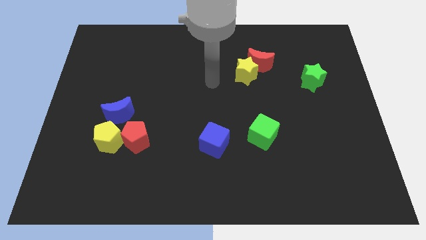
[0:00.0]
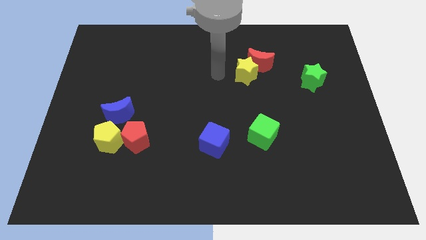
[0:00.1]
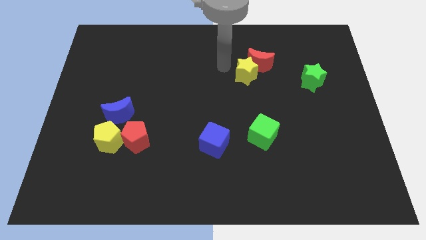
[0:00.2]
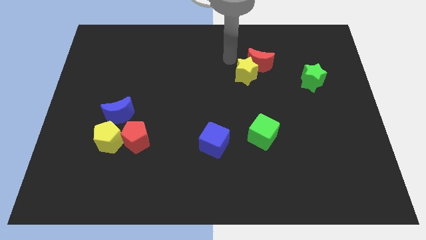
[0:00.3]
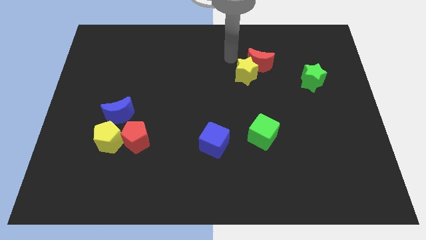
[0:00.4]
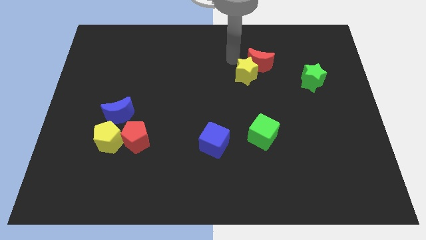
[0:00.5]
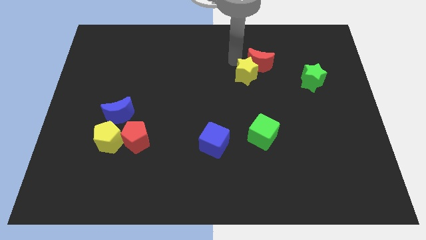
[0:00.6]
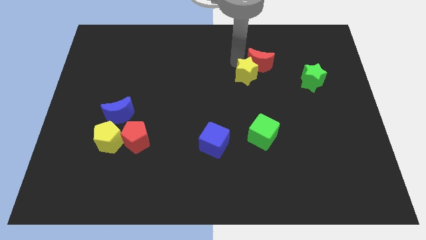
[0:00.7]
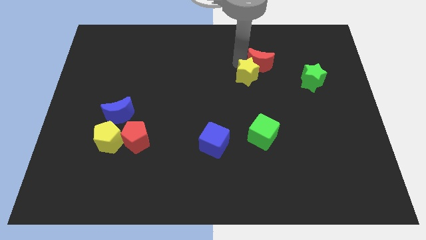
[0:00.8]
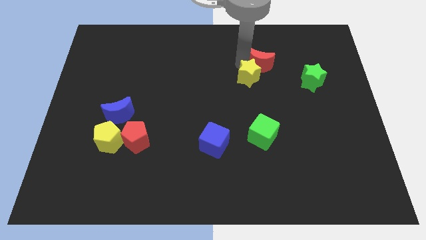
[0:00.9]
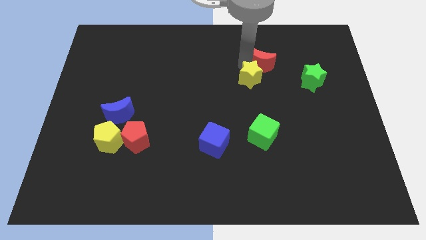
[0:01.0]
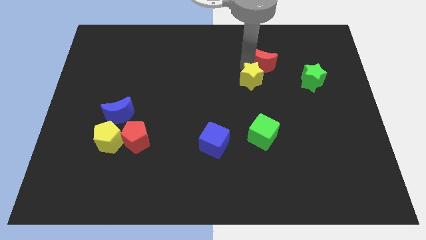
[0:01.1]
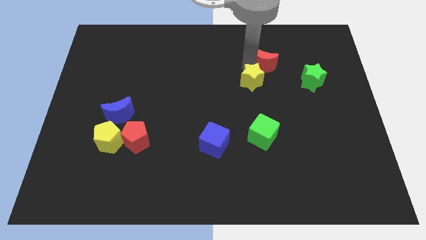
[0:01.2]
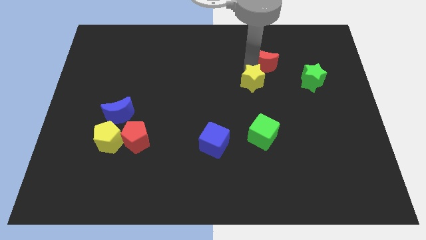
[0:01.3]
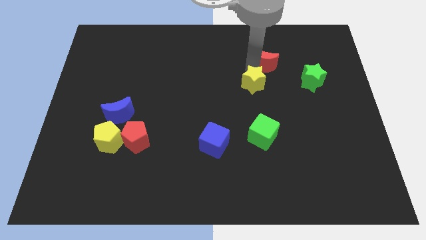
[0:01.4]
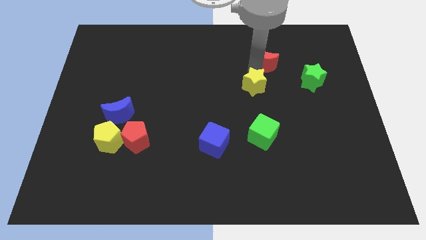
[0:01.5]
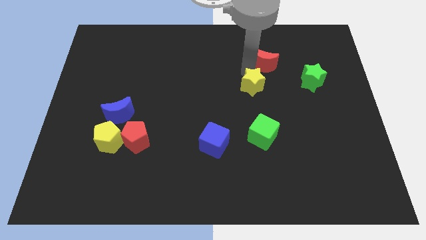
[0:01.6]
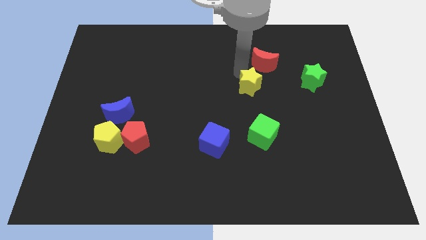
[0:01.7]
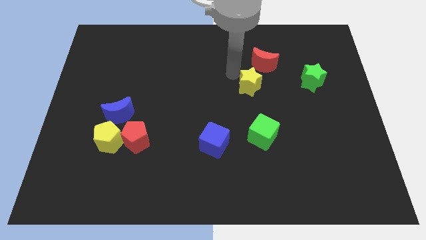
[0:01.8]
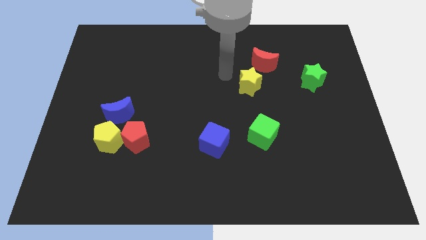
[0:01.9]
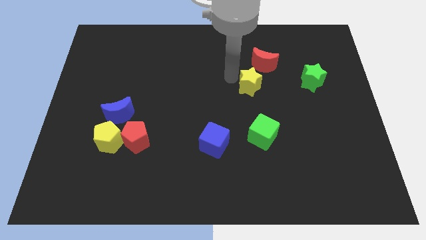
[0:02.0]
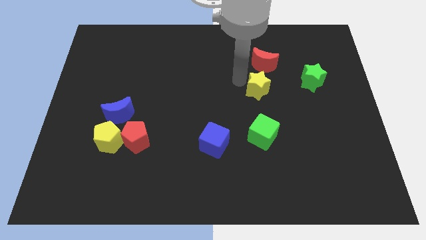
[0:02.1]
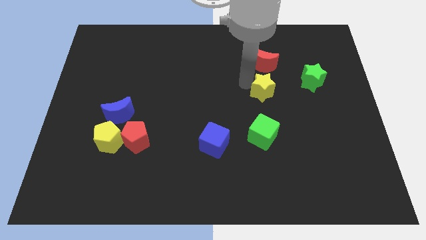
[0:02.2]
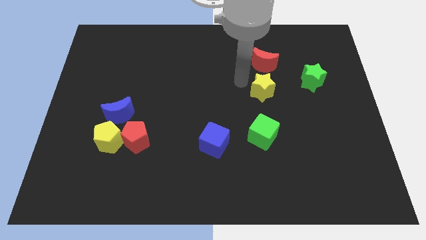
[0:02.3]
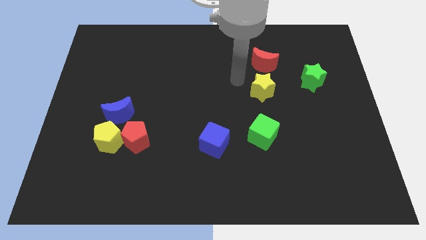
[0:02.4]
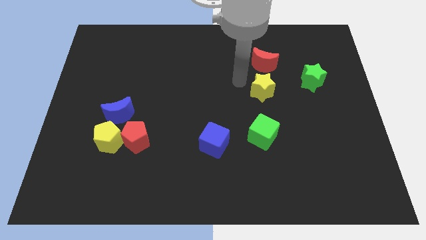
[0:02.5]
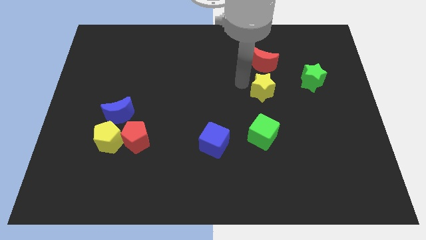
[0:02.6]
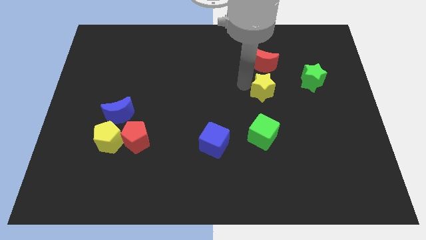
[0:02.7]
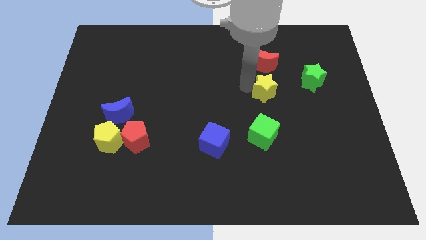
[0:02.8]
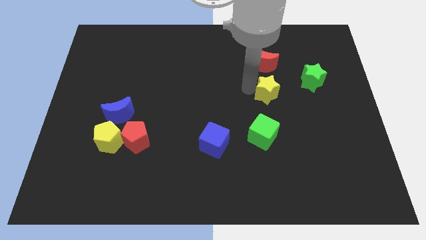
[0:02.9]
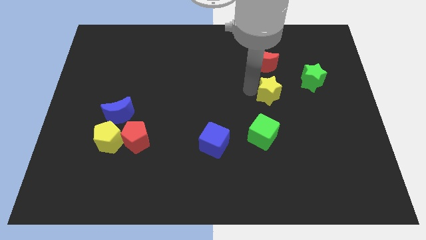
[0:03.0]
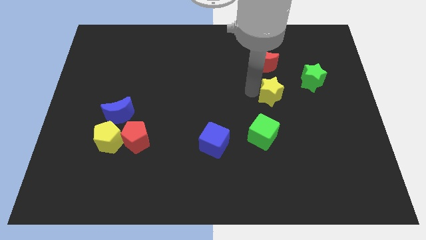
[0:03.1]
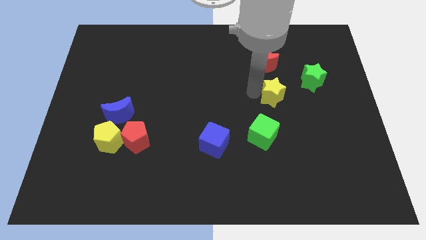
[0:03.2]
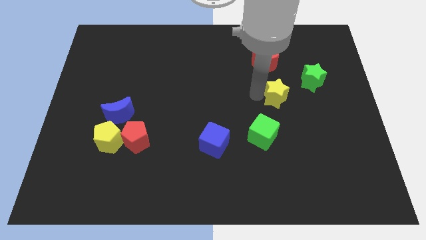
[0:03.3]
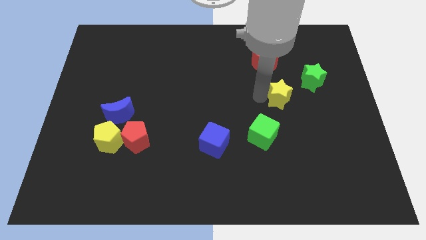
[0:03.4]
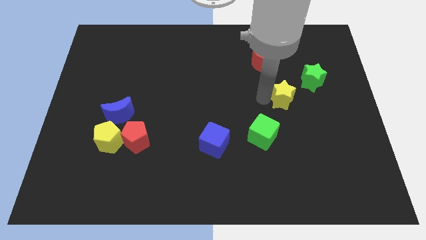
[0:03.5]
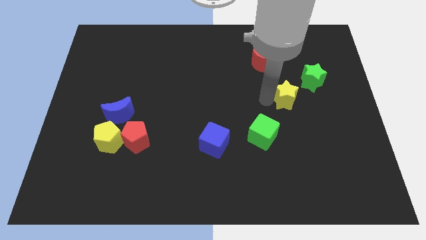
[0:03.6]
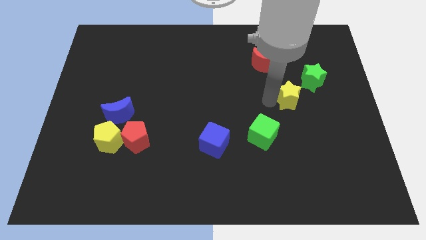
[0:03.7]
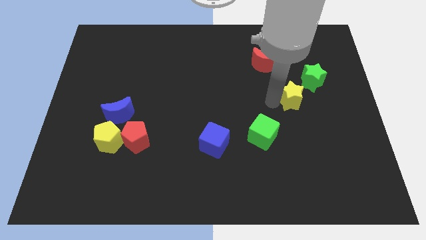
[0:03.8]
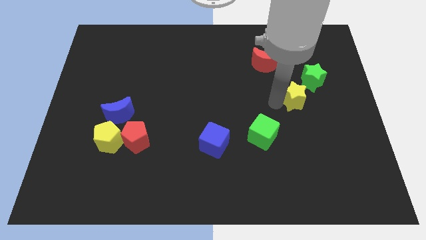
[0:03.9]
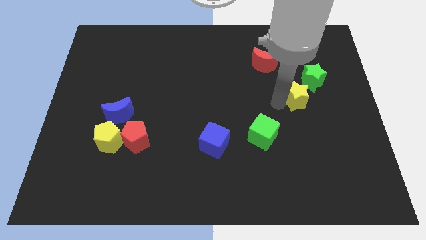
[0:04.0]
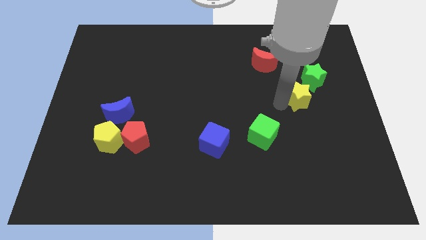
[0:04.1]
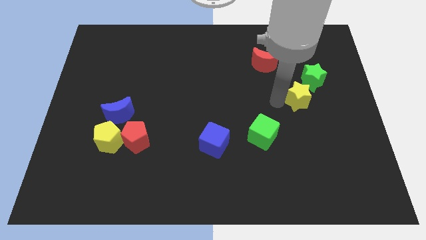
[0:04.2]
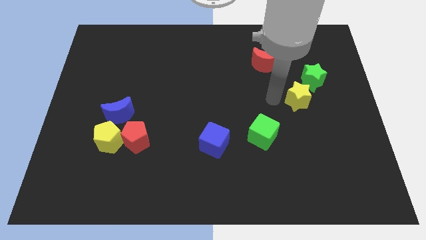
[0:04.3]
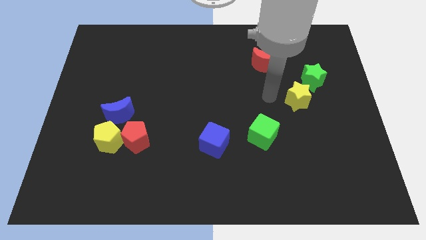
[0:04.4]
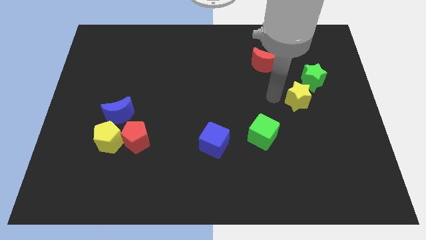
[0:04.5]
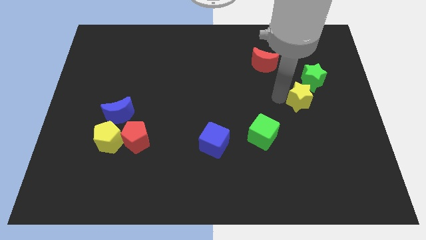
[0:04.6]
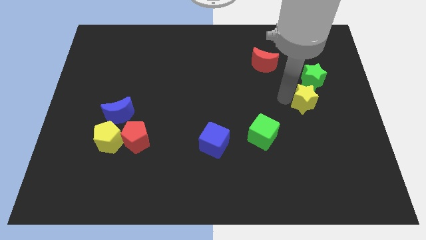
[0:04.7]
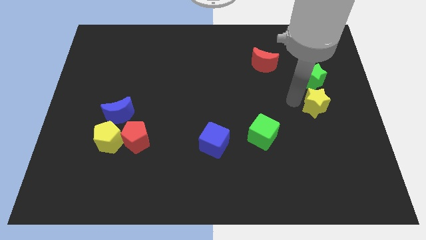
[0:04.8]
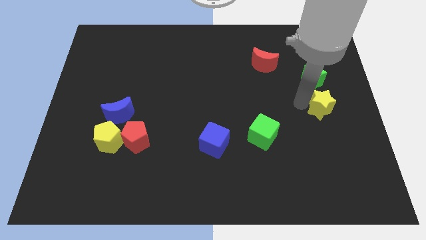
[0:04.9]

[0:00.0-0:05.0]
move the yellow star to the right side

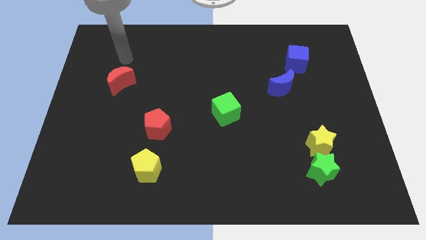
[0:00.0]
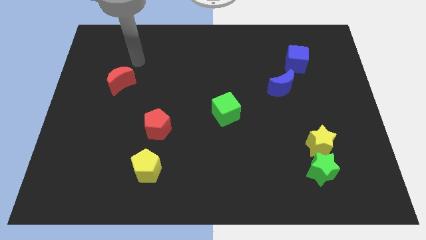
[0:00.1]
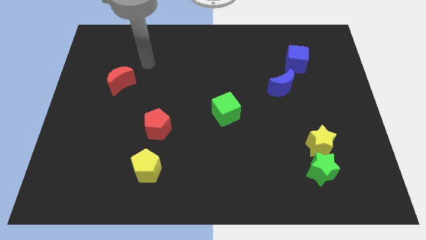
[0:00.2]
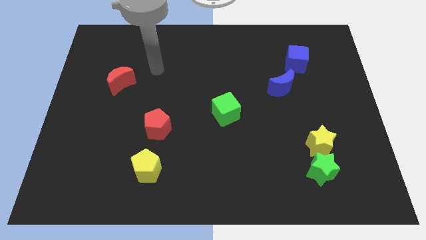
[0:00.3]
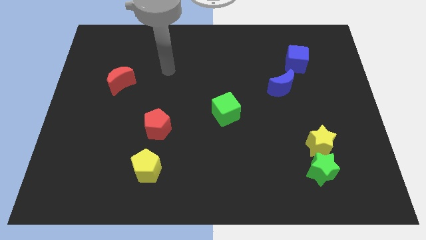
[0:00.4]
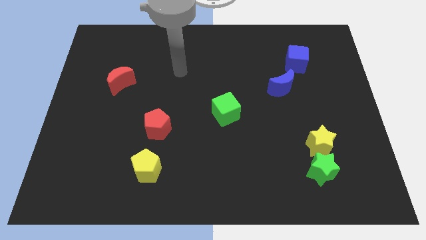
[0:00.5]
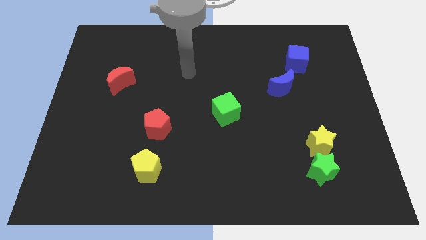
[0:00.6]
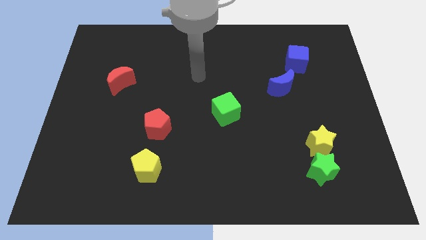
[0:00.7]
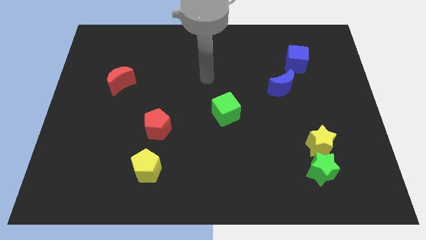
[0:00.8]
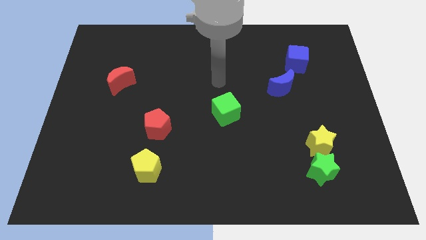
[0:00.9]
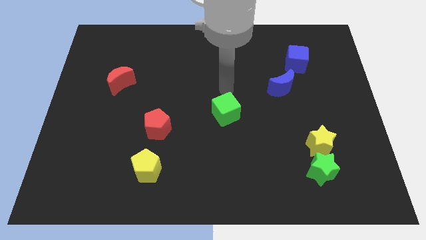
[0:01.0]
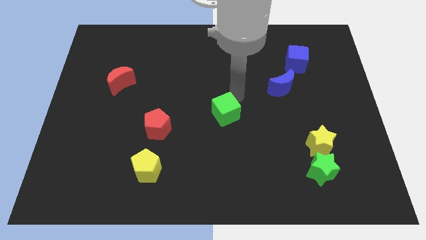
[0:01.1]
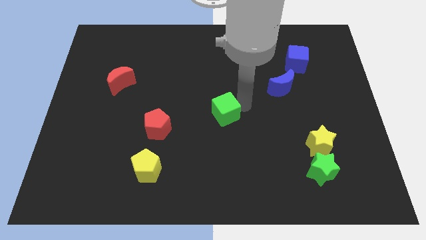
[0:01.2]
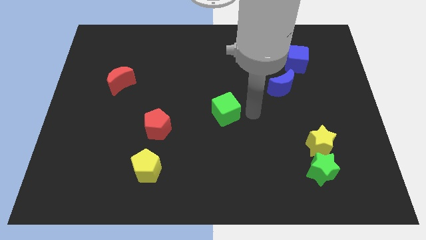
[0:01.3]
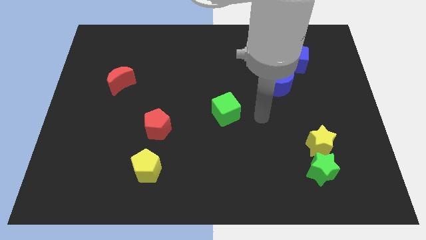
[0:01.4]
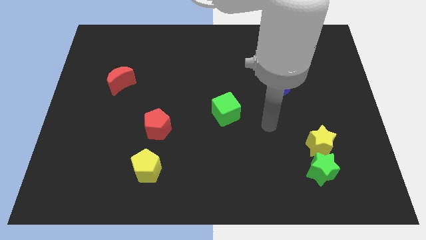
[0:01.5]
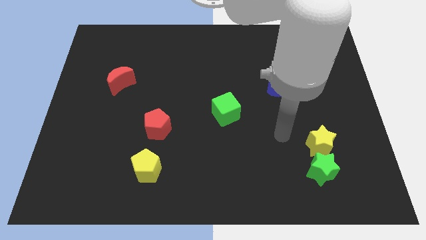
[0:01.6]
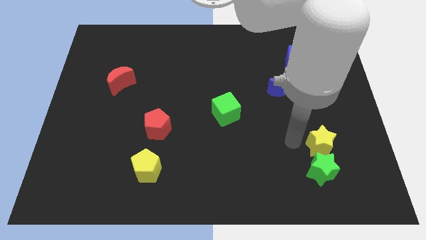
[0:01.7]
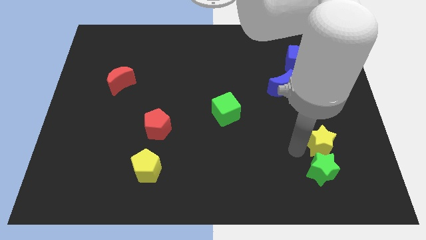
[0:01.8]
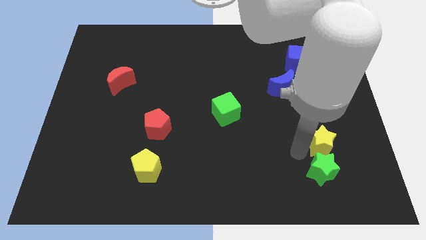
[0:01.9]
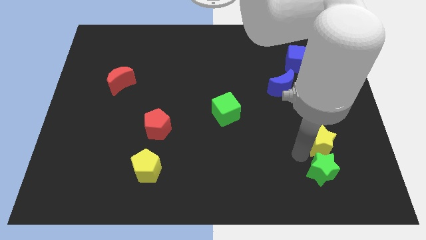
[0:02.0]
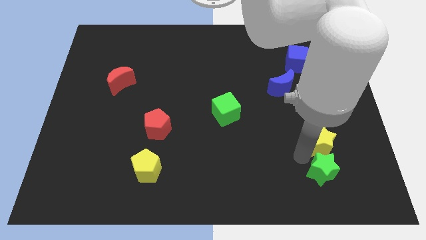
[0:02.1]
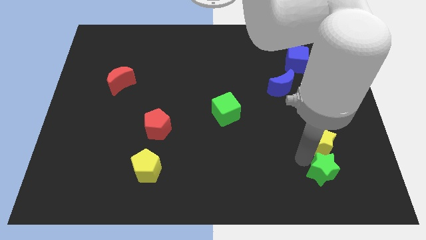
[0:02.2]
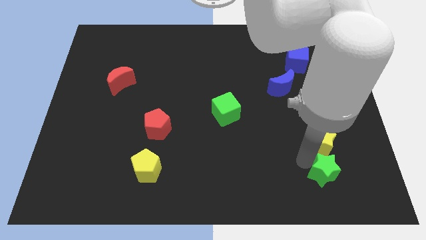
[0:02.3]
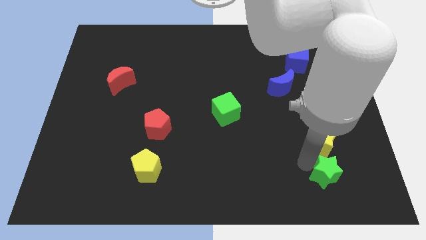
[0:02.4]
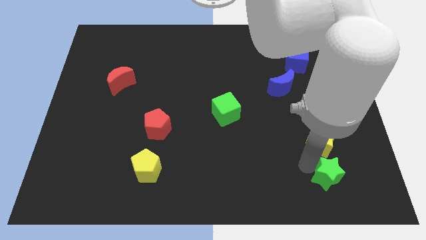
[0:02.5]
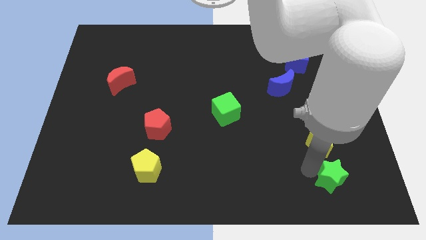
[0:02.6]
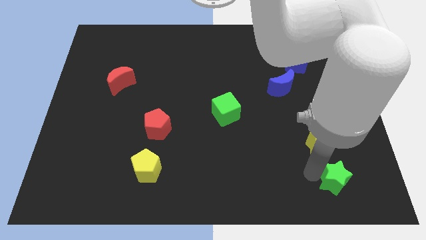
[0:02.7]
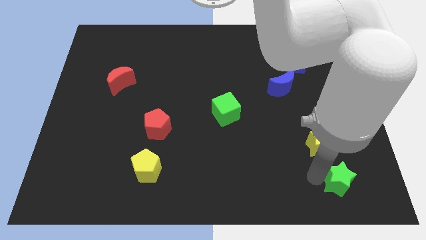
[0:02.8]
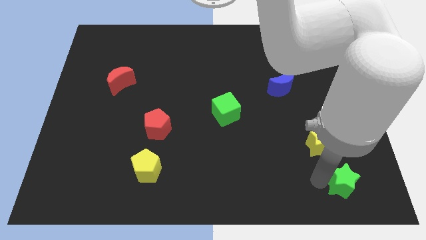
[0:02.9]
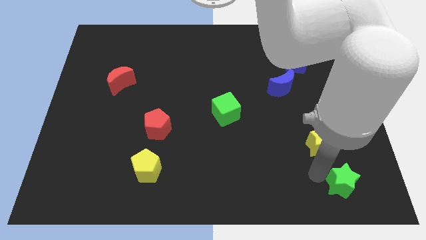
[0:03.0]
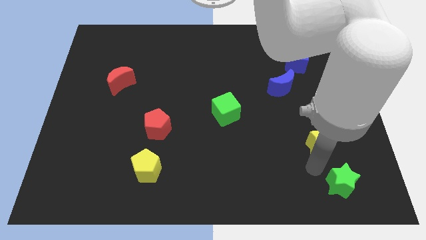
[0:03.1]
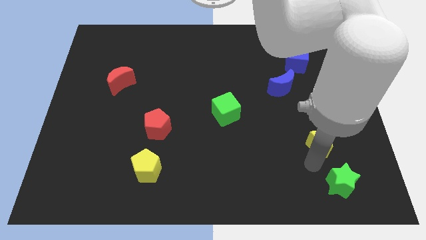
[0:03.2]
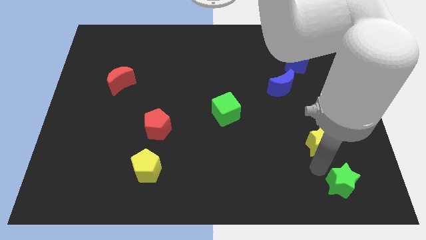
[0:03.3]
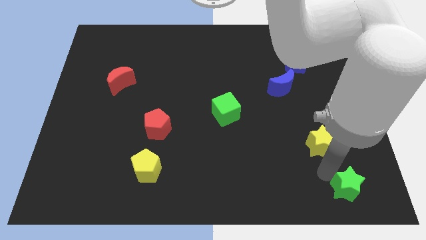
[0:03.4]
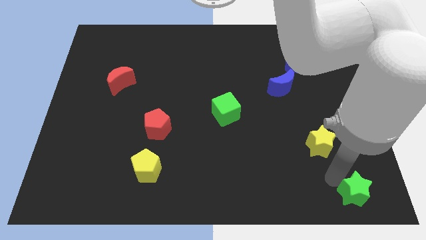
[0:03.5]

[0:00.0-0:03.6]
move the green star to the lower right corner
